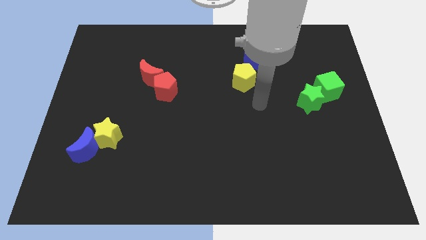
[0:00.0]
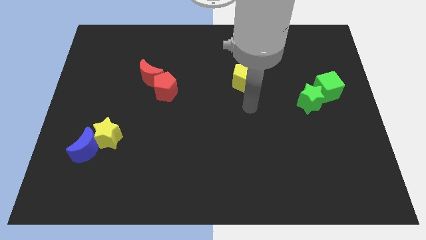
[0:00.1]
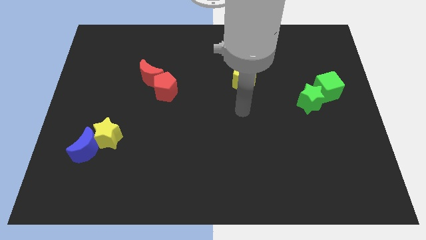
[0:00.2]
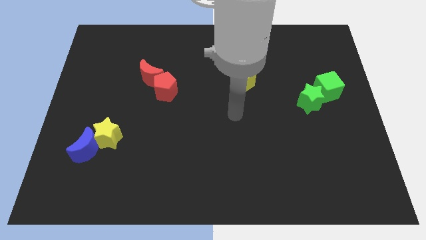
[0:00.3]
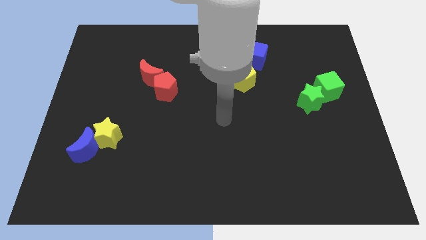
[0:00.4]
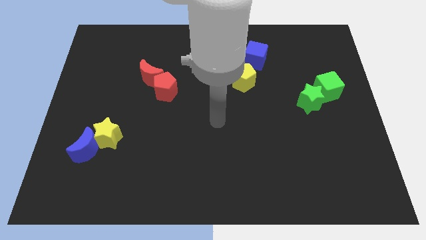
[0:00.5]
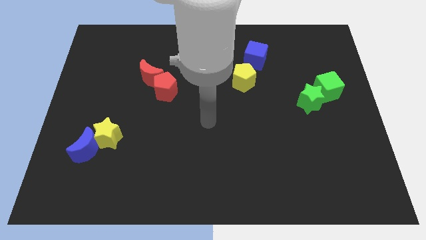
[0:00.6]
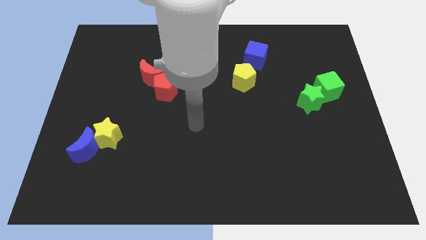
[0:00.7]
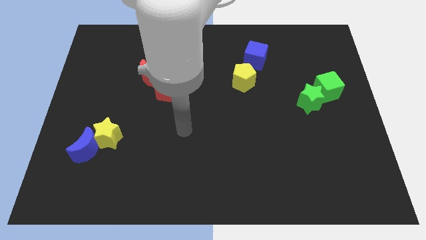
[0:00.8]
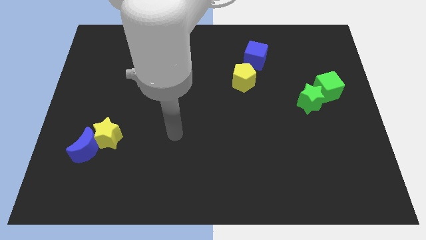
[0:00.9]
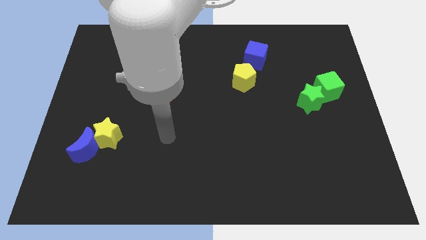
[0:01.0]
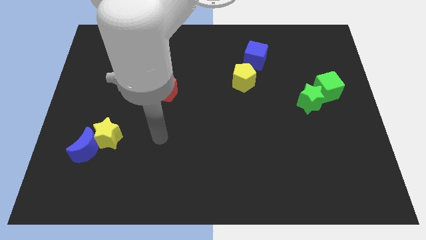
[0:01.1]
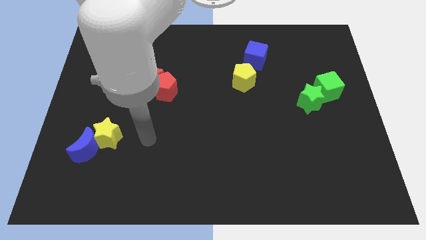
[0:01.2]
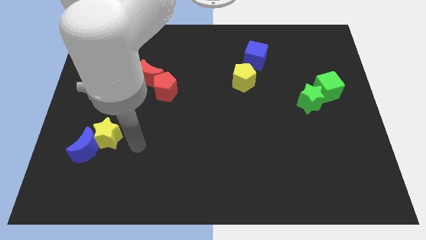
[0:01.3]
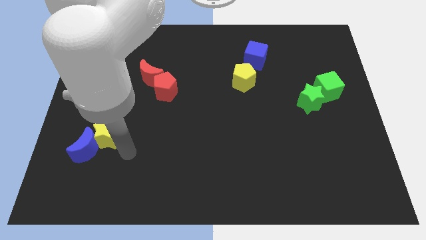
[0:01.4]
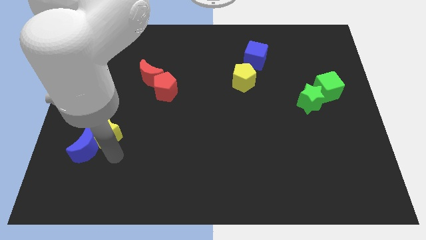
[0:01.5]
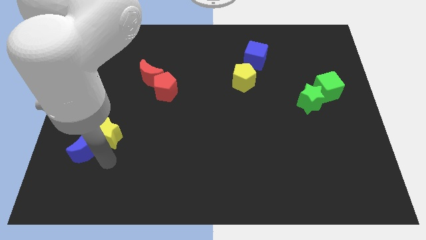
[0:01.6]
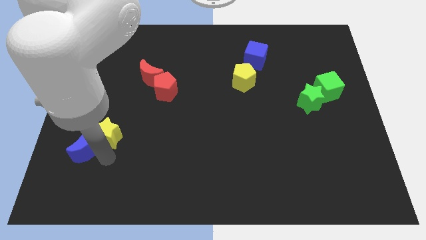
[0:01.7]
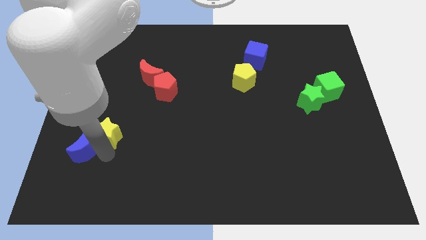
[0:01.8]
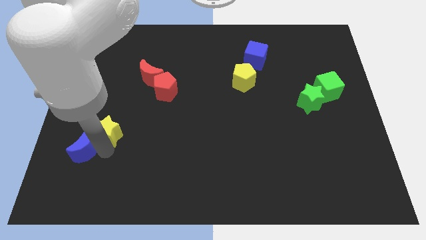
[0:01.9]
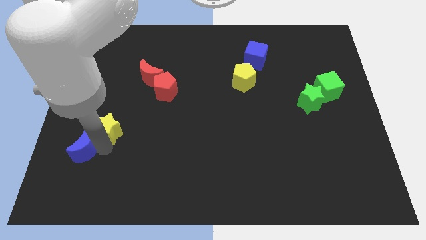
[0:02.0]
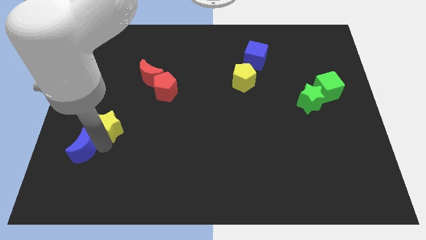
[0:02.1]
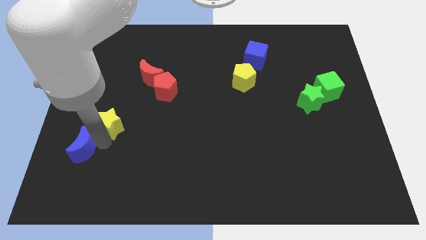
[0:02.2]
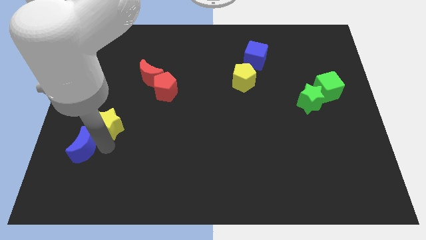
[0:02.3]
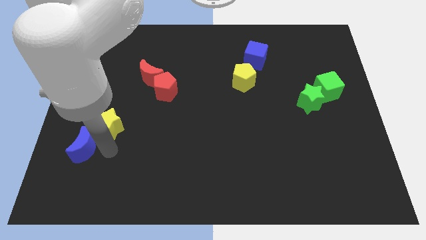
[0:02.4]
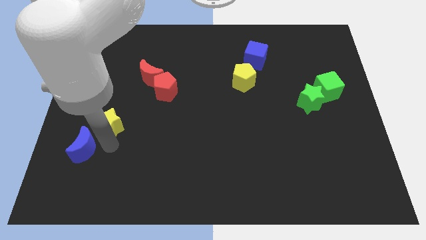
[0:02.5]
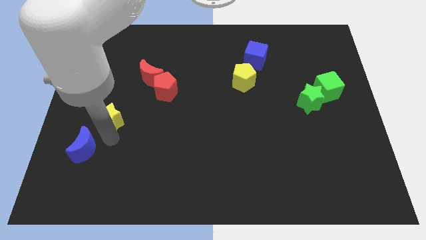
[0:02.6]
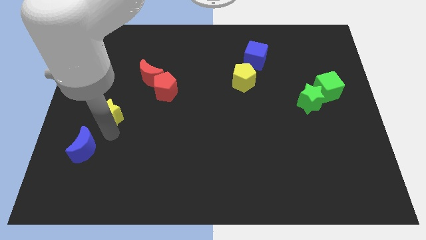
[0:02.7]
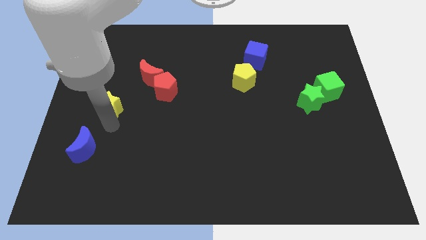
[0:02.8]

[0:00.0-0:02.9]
slide the yellow star a little bit upwards

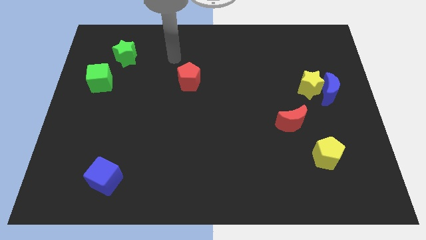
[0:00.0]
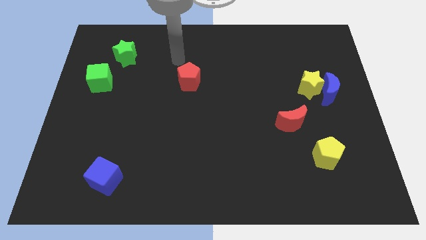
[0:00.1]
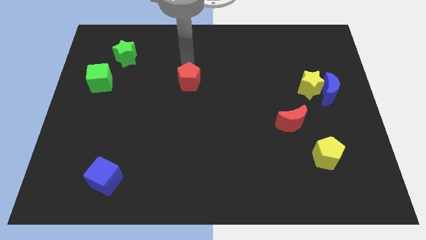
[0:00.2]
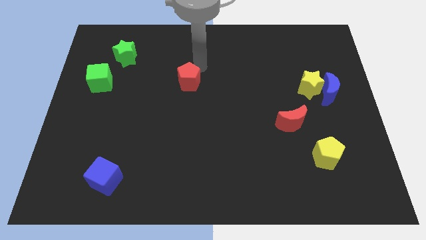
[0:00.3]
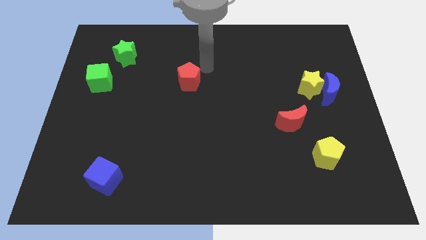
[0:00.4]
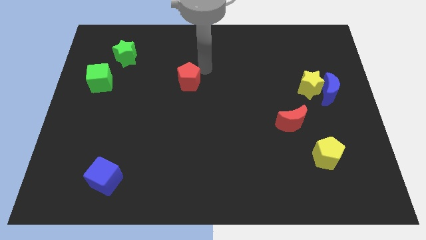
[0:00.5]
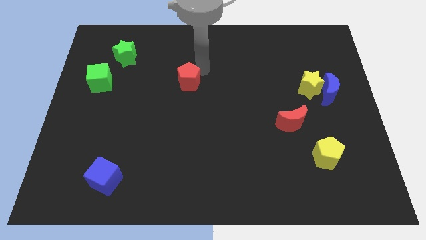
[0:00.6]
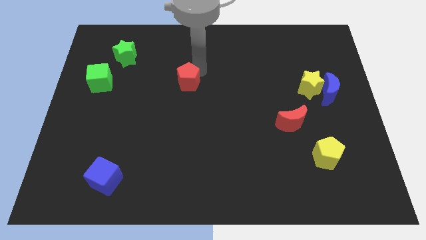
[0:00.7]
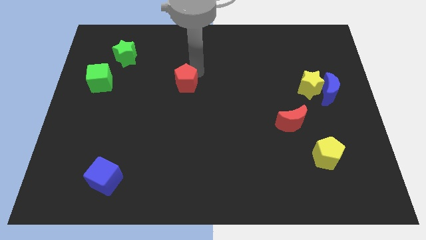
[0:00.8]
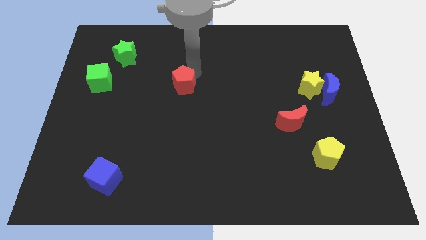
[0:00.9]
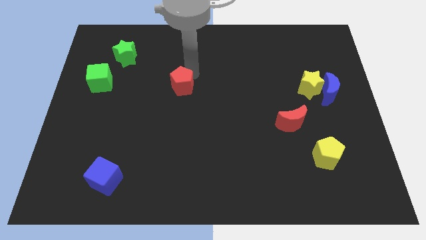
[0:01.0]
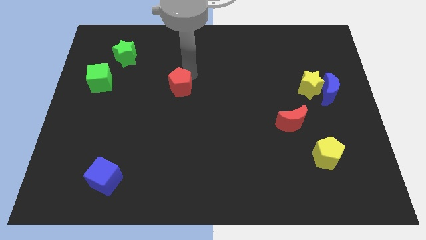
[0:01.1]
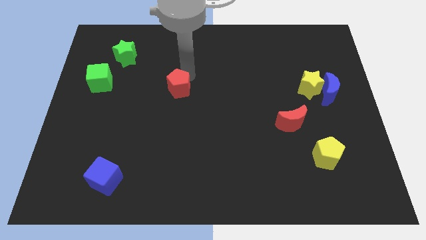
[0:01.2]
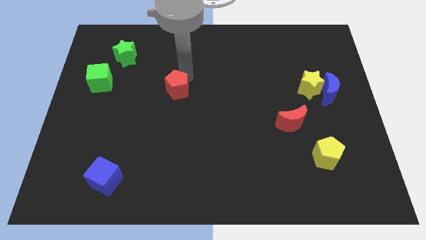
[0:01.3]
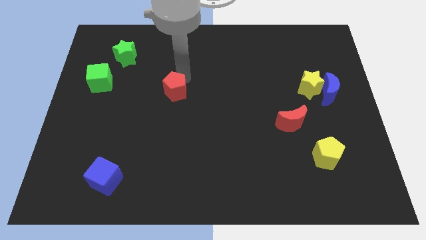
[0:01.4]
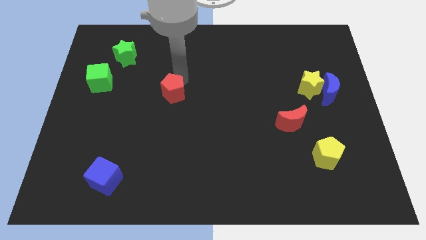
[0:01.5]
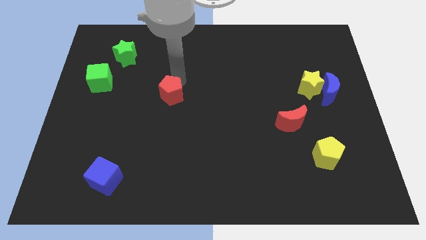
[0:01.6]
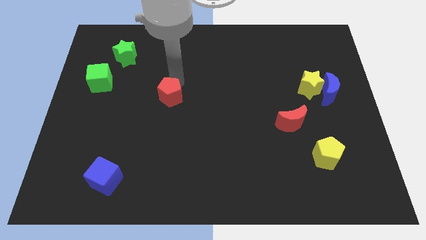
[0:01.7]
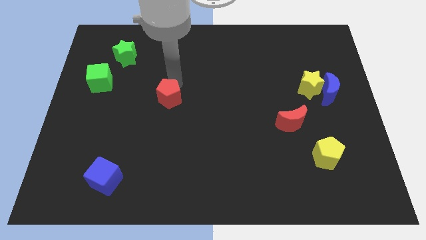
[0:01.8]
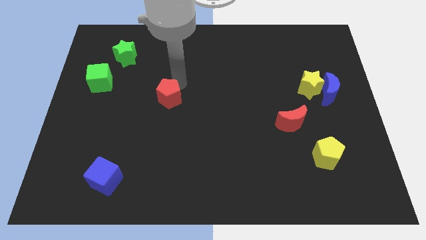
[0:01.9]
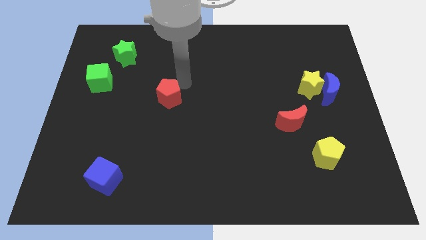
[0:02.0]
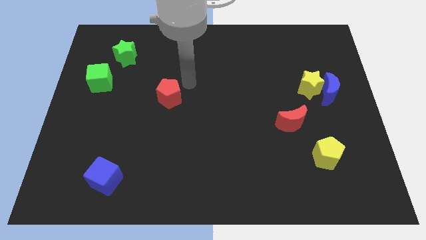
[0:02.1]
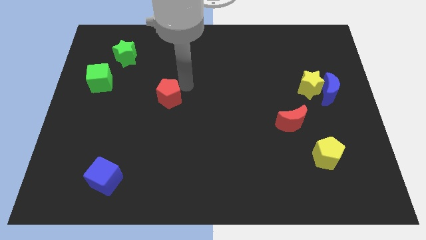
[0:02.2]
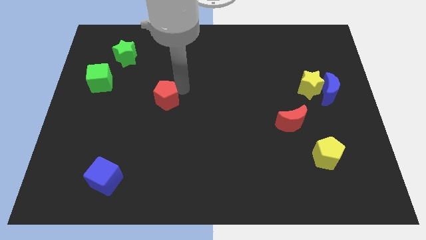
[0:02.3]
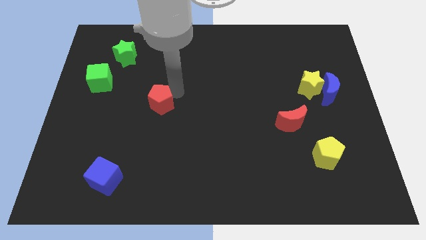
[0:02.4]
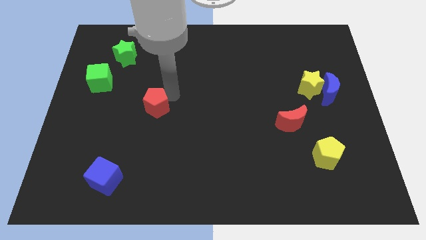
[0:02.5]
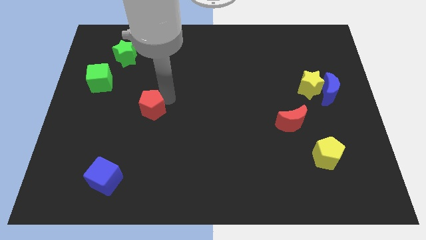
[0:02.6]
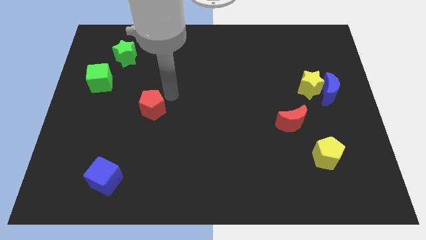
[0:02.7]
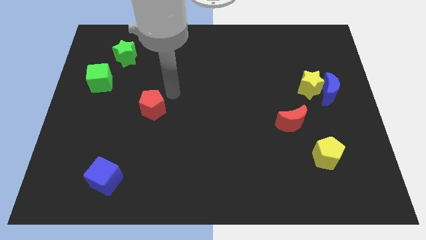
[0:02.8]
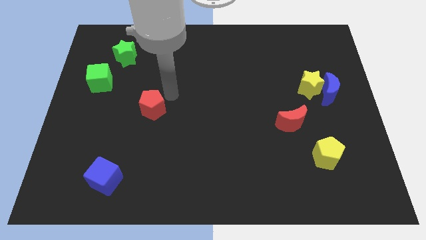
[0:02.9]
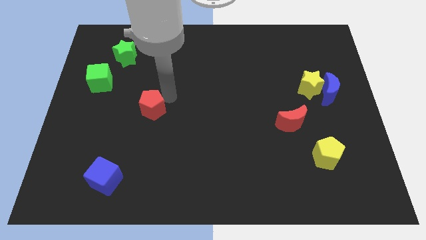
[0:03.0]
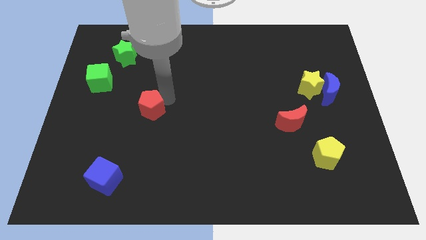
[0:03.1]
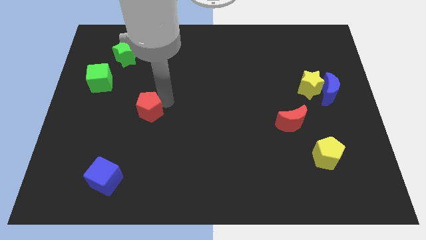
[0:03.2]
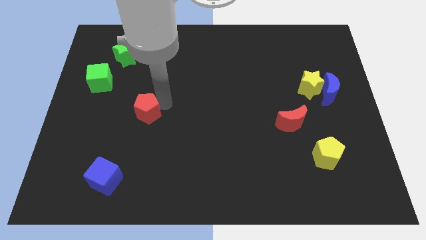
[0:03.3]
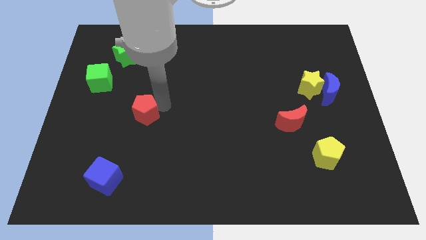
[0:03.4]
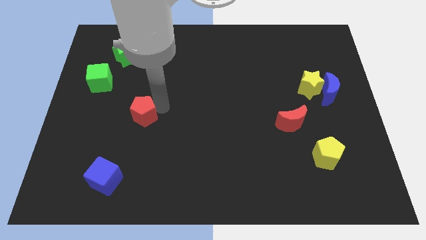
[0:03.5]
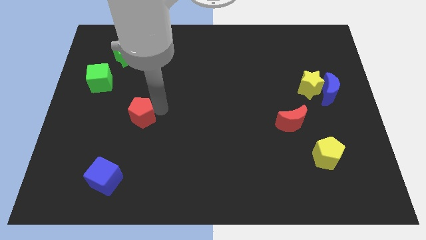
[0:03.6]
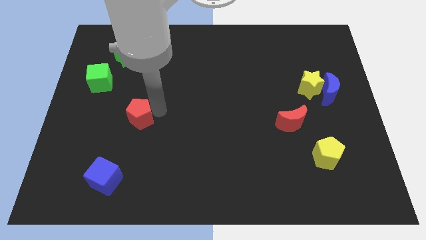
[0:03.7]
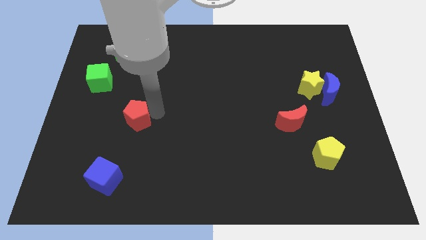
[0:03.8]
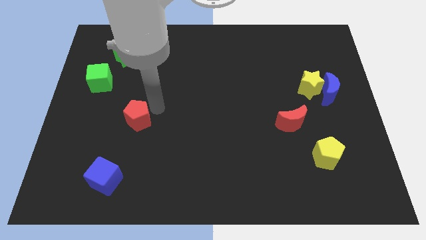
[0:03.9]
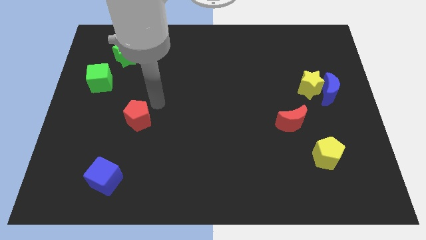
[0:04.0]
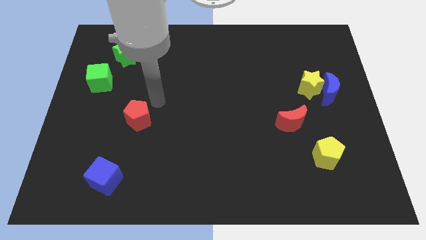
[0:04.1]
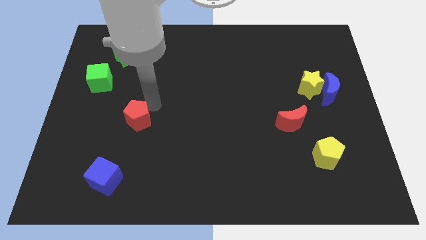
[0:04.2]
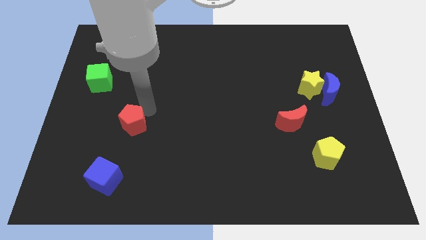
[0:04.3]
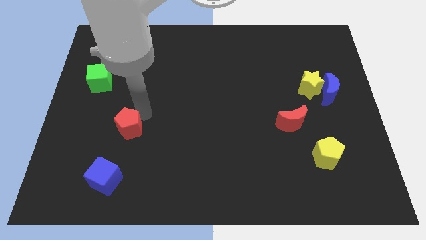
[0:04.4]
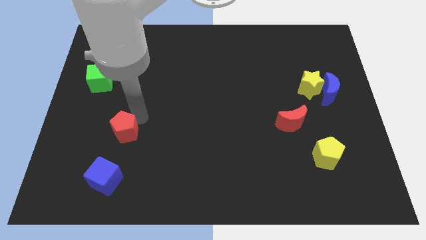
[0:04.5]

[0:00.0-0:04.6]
move the red pentagon down and then to the left

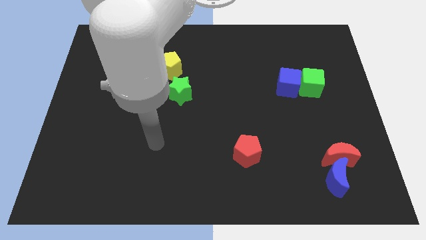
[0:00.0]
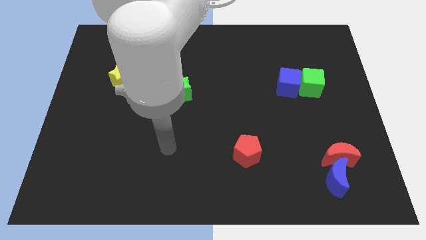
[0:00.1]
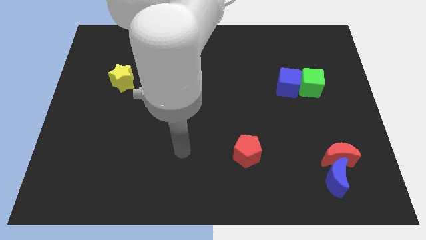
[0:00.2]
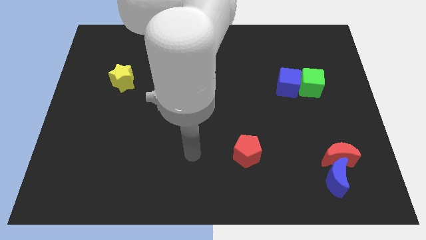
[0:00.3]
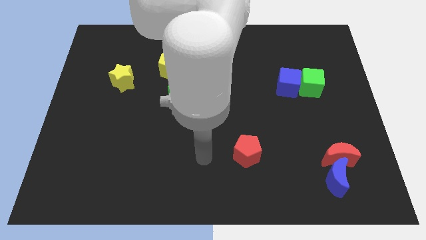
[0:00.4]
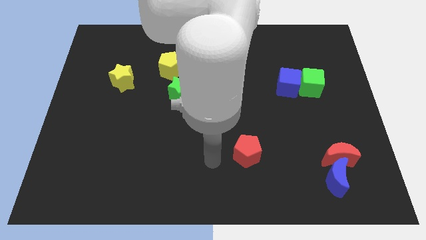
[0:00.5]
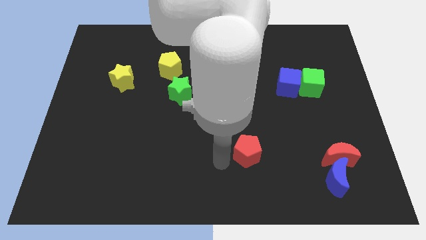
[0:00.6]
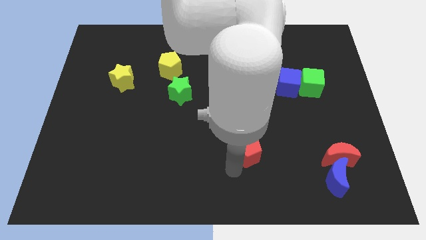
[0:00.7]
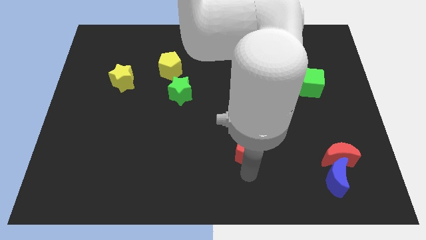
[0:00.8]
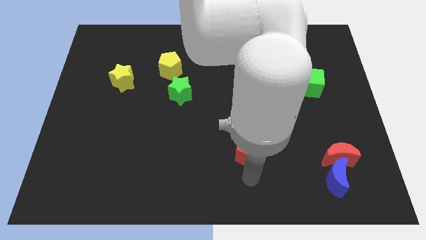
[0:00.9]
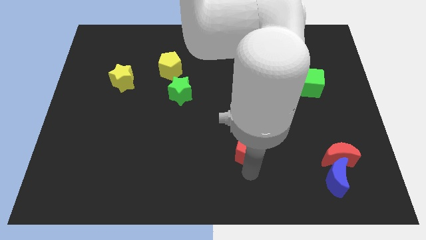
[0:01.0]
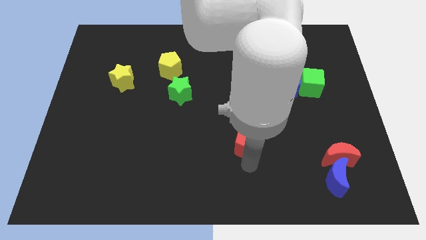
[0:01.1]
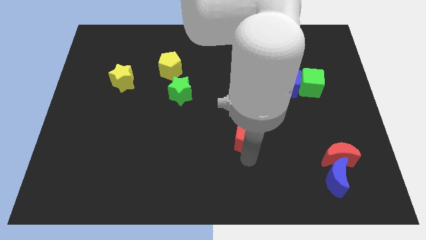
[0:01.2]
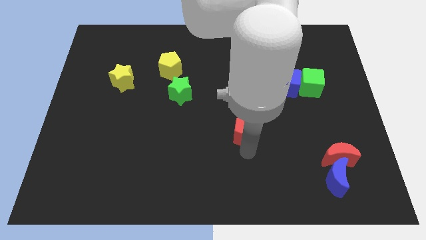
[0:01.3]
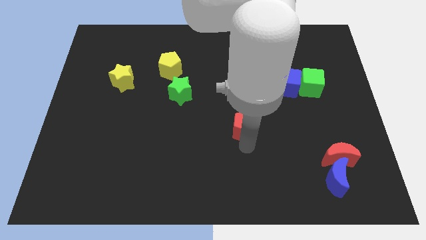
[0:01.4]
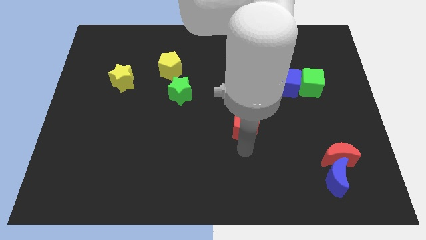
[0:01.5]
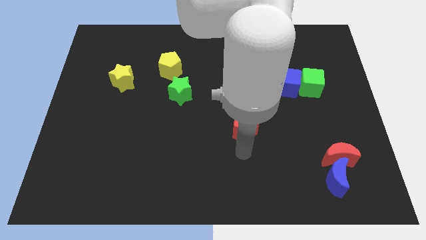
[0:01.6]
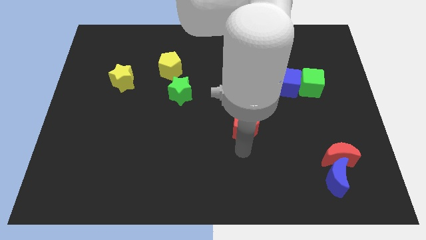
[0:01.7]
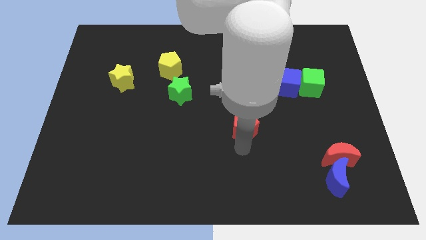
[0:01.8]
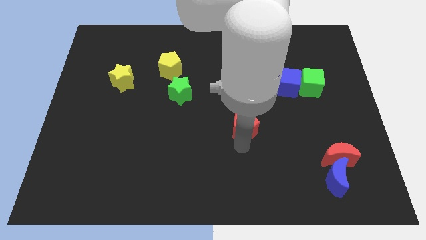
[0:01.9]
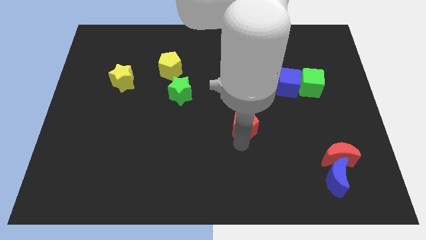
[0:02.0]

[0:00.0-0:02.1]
move the red pentagon a little bit up
